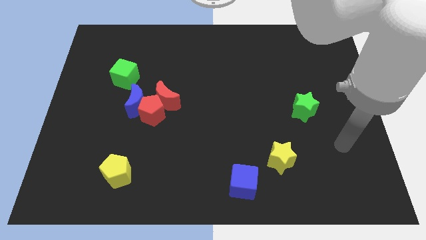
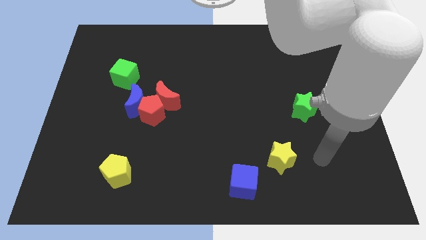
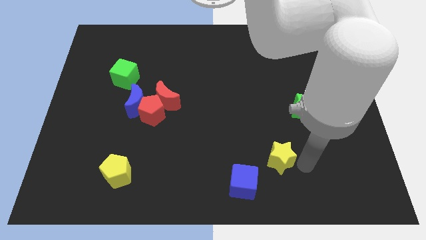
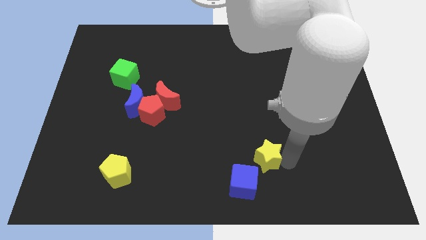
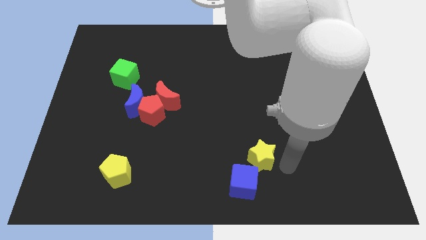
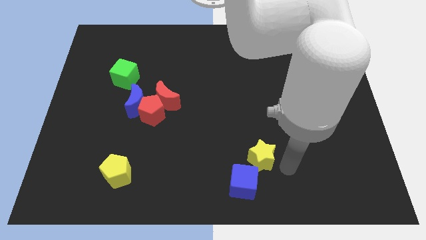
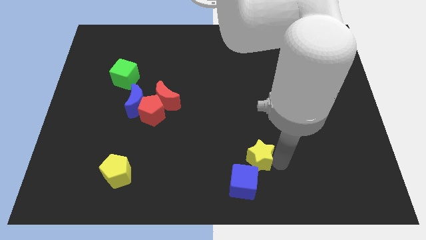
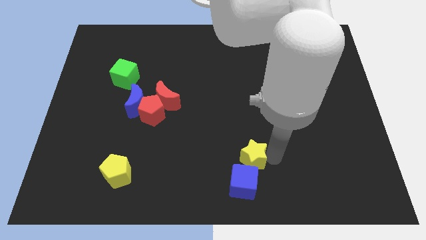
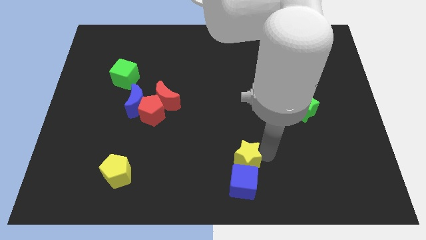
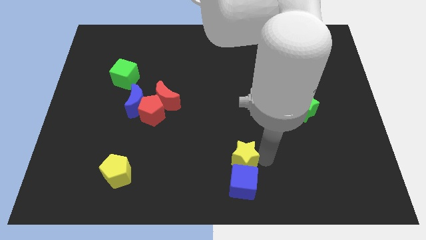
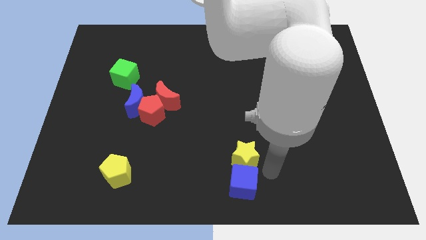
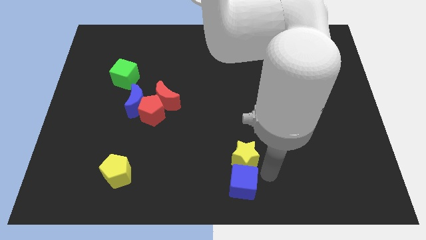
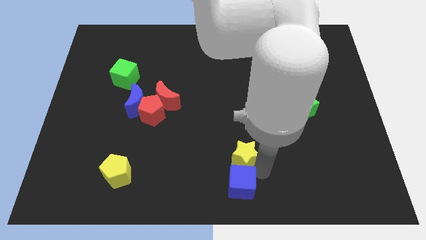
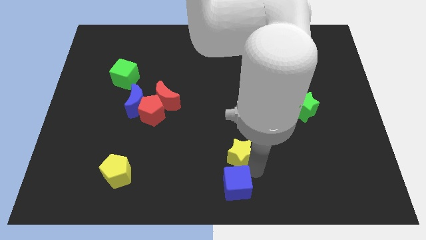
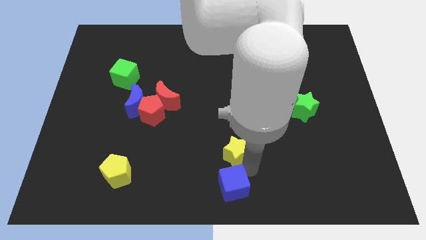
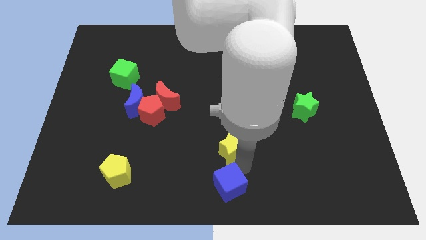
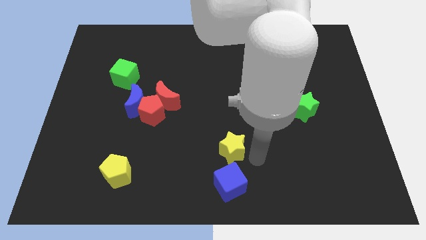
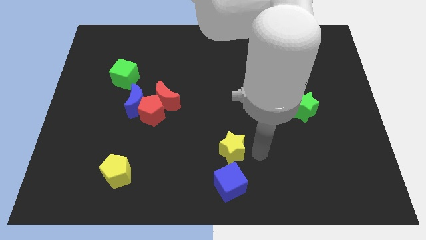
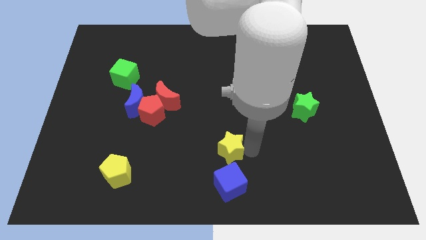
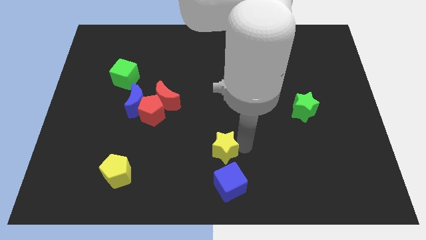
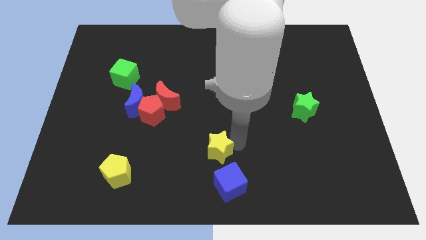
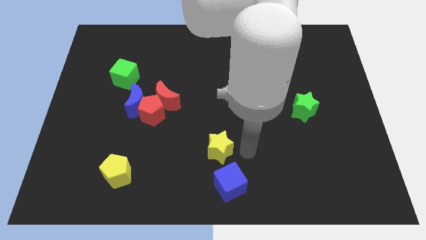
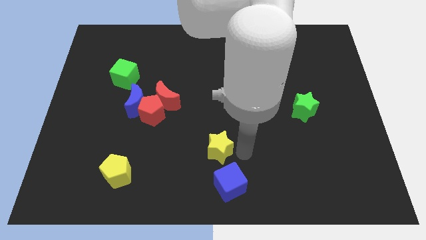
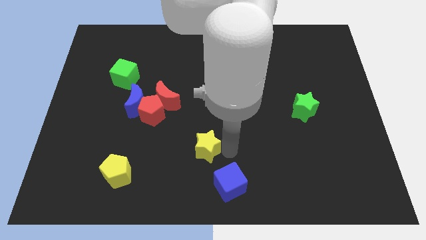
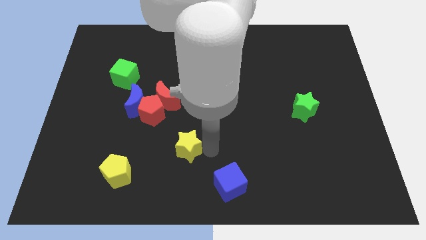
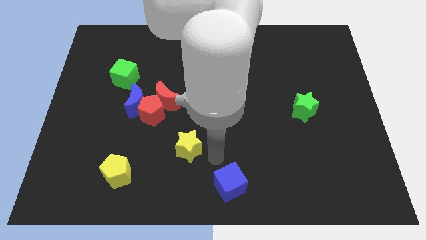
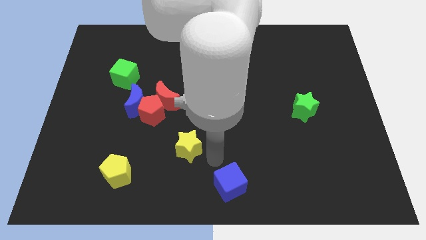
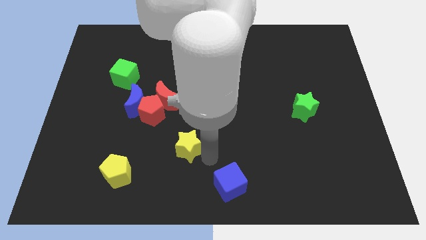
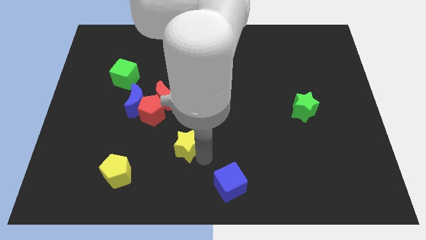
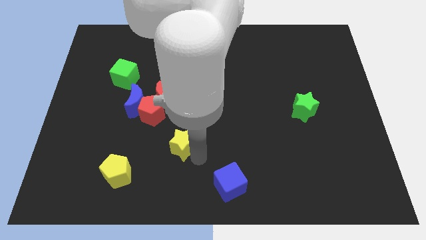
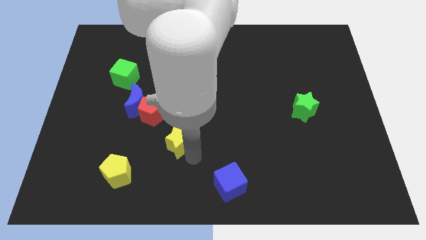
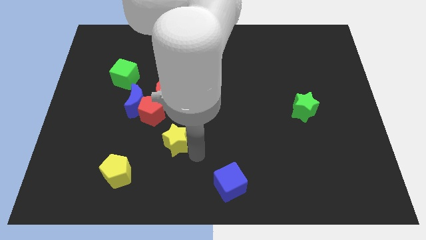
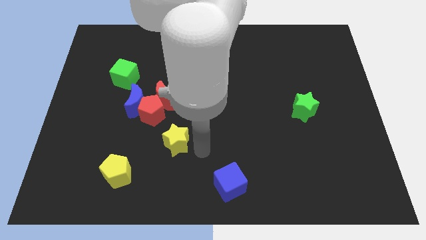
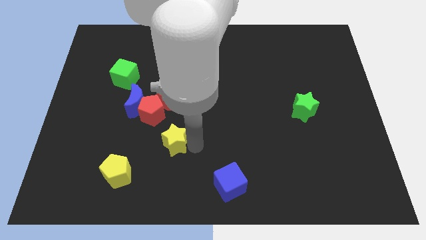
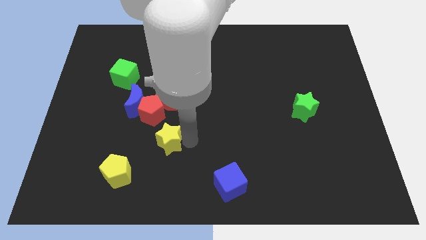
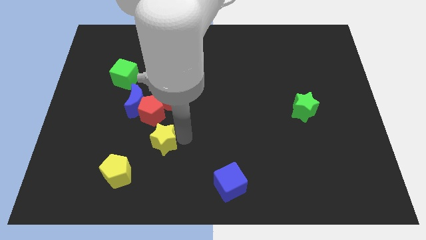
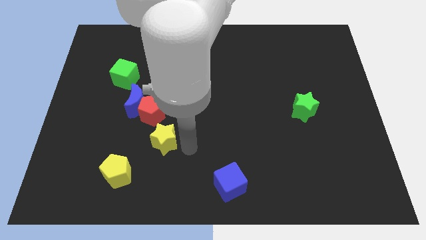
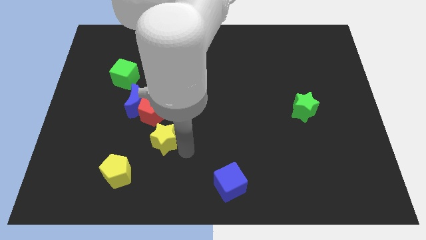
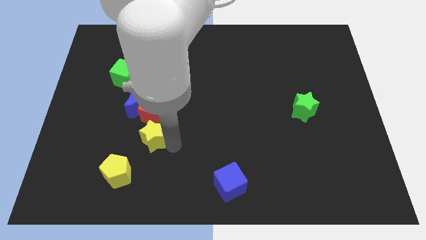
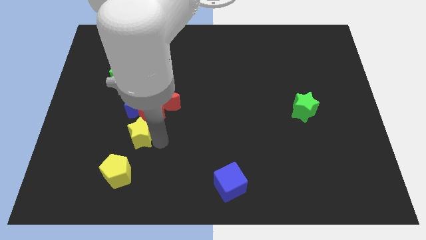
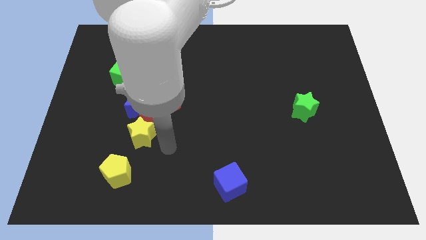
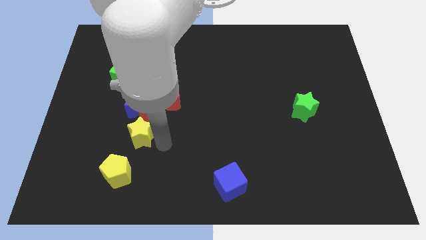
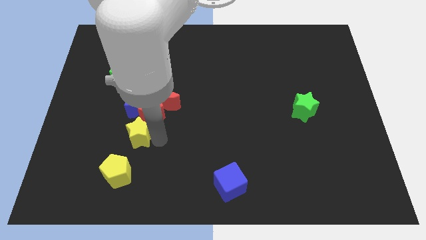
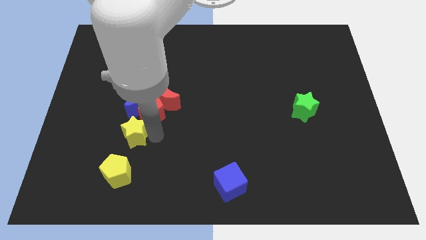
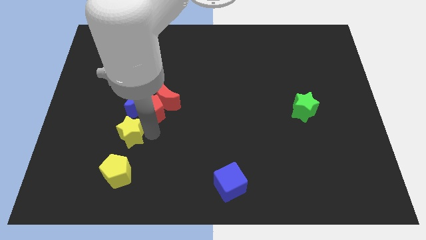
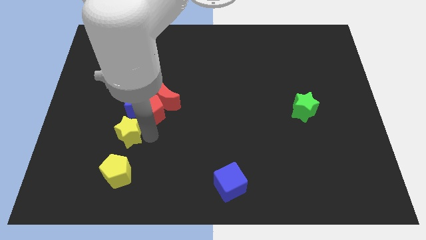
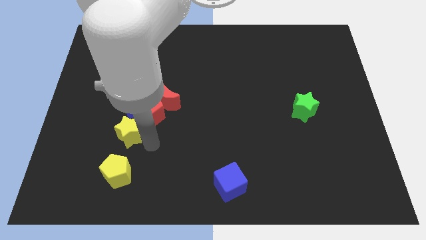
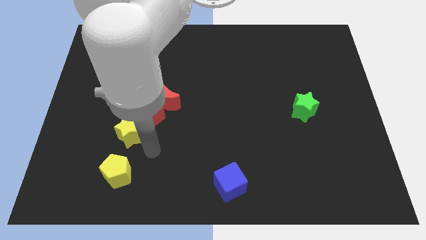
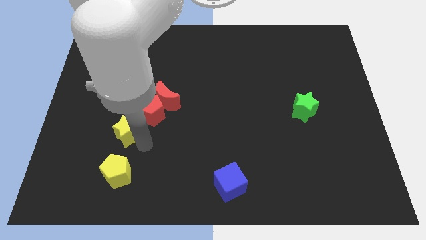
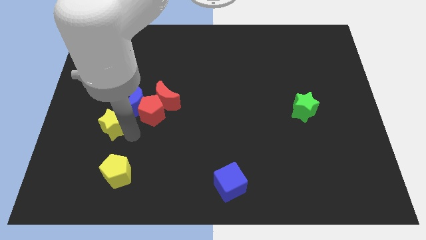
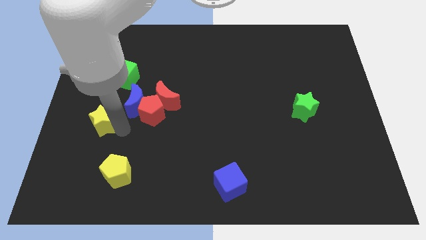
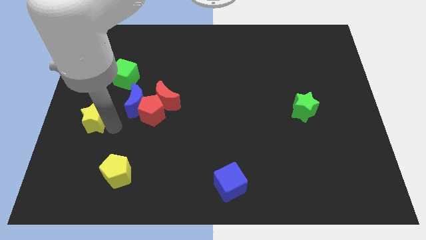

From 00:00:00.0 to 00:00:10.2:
slide the yellow star to the left side
